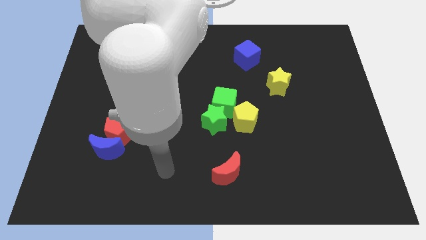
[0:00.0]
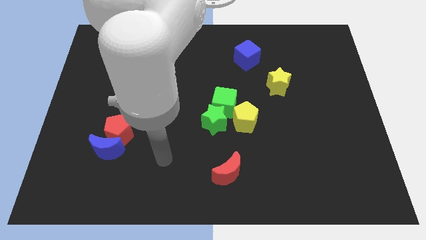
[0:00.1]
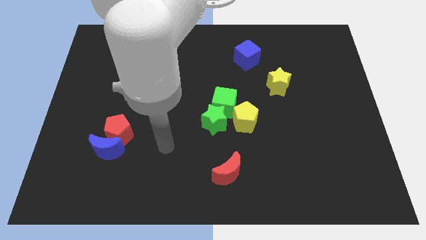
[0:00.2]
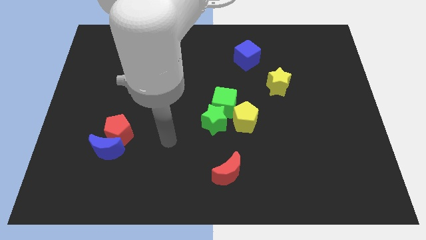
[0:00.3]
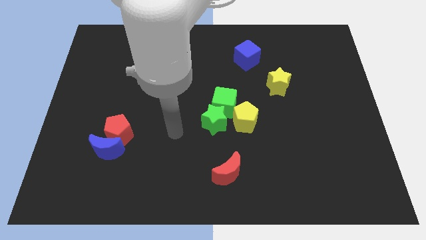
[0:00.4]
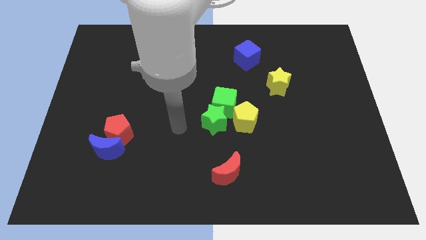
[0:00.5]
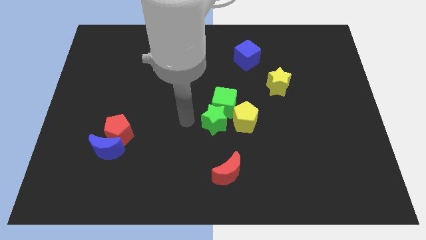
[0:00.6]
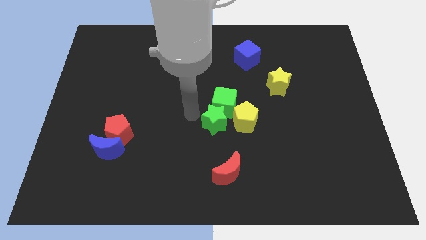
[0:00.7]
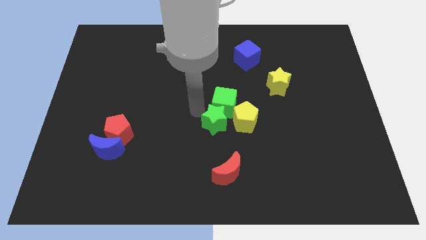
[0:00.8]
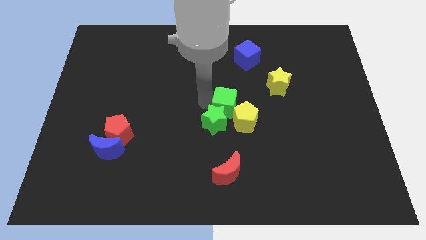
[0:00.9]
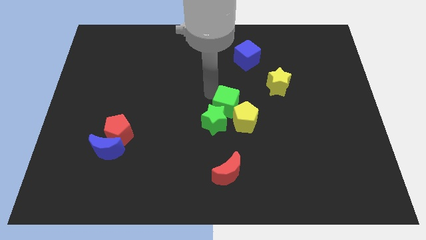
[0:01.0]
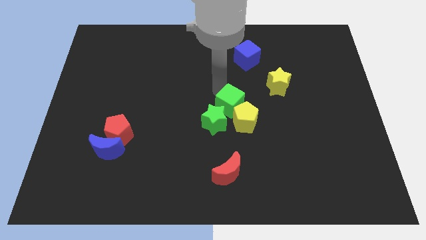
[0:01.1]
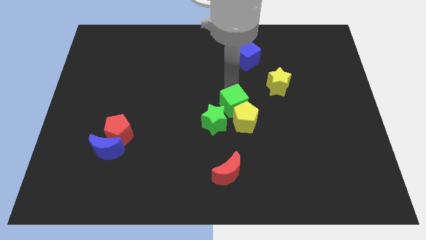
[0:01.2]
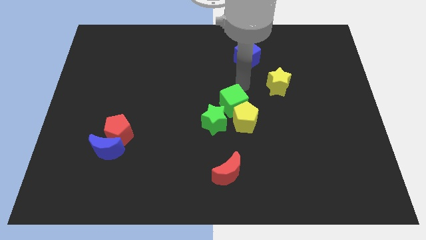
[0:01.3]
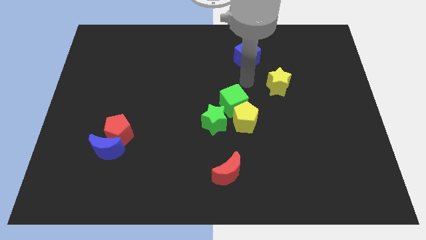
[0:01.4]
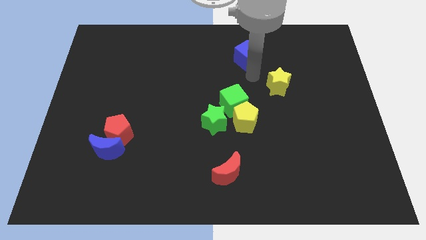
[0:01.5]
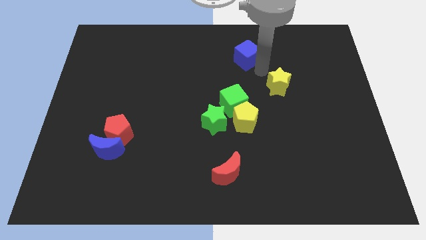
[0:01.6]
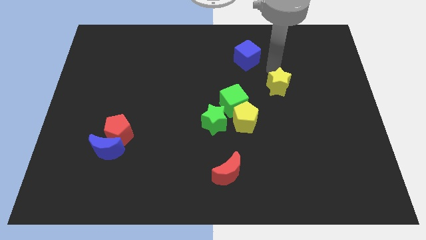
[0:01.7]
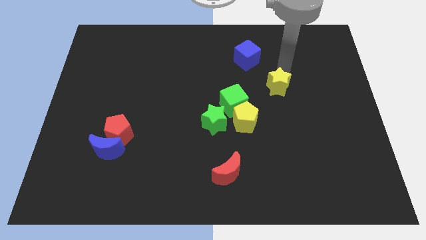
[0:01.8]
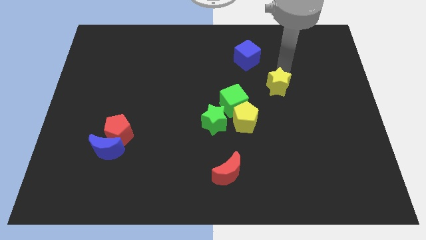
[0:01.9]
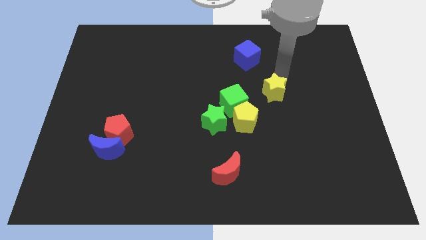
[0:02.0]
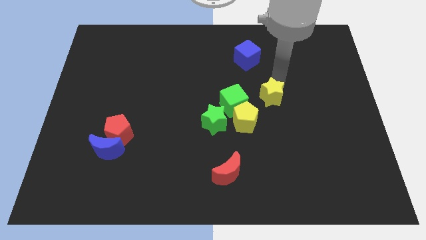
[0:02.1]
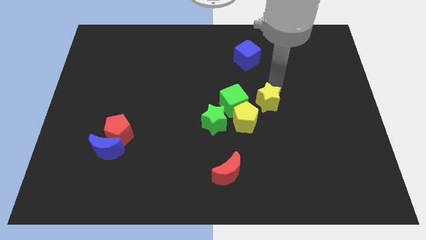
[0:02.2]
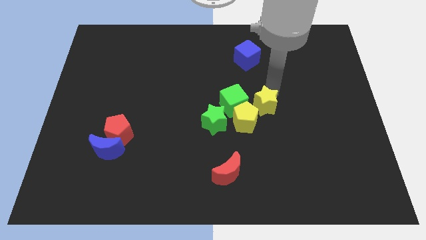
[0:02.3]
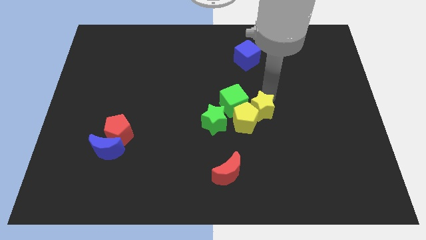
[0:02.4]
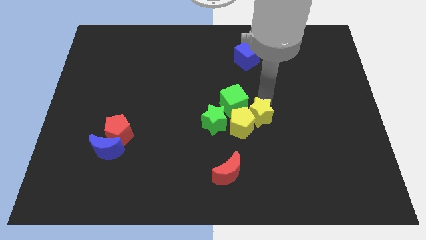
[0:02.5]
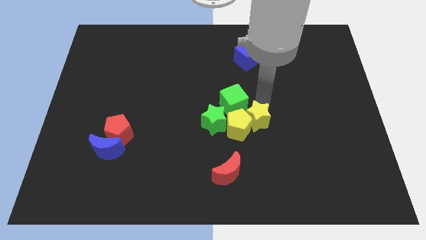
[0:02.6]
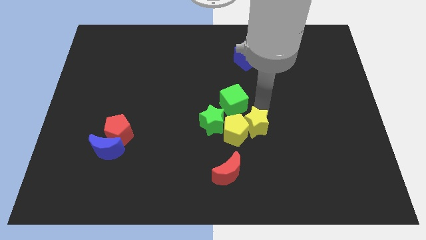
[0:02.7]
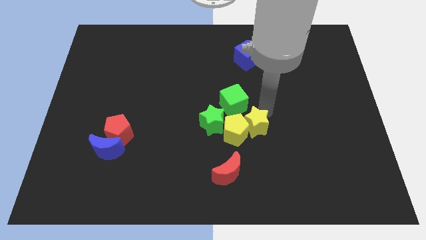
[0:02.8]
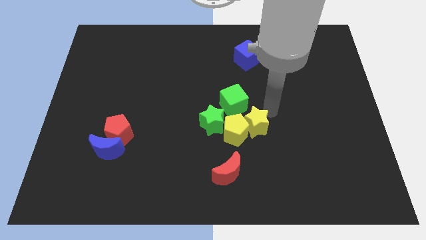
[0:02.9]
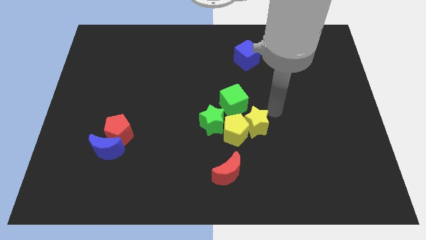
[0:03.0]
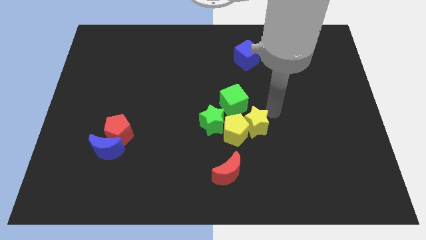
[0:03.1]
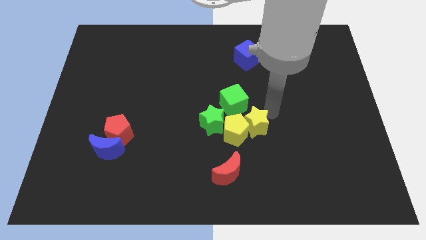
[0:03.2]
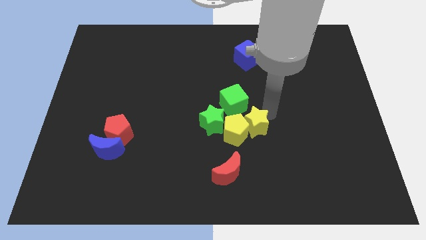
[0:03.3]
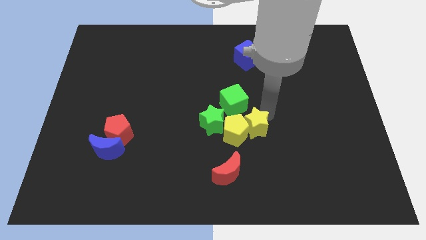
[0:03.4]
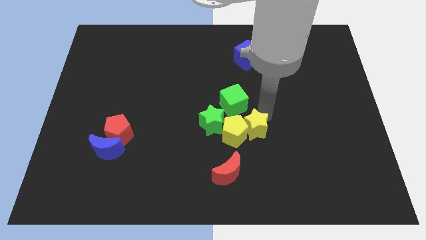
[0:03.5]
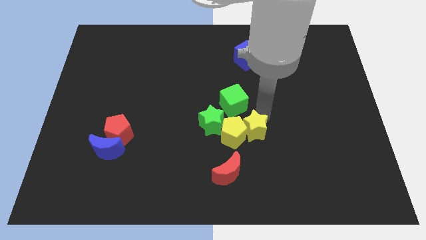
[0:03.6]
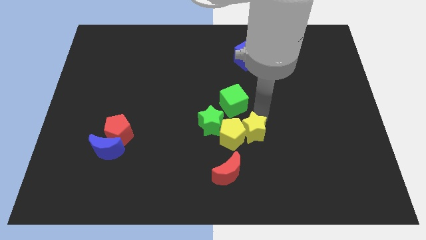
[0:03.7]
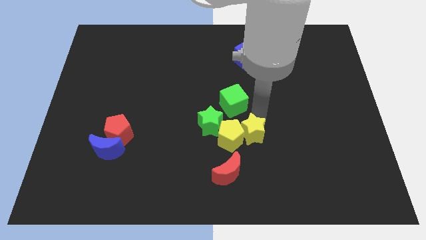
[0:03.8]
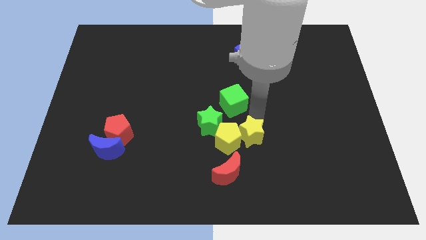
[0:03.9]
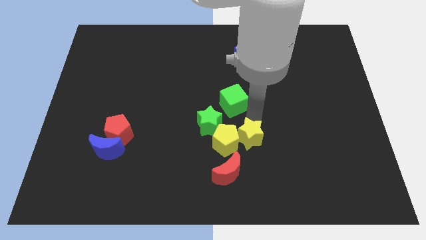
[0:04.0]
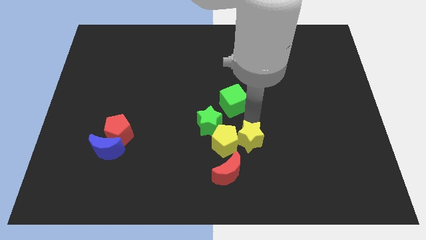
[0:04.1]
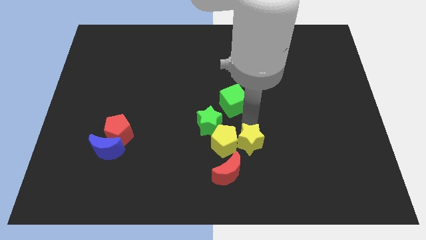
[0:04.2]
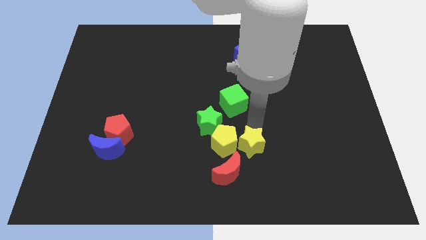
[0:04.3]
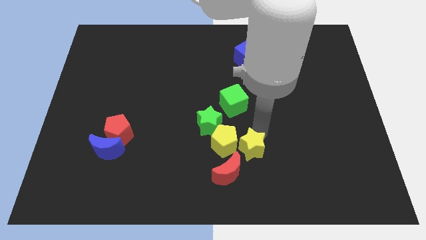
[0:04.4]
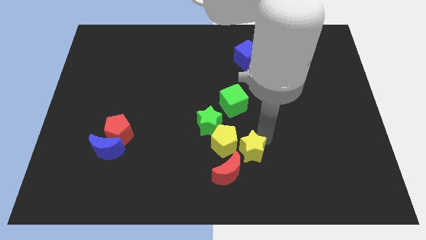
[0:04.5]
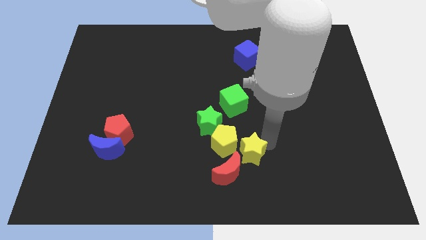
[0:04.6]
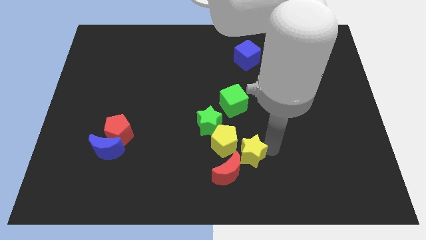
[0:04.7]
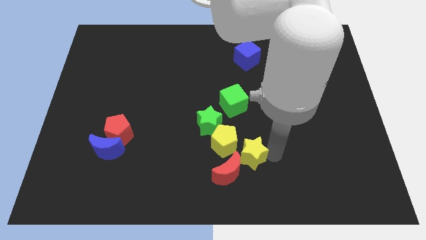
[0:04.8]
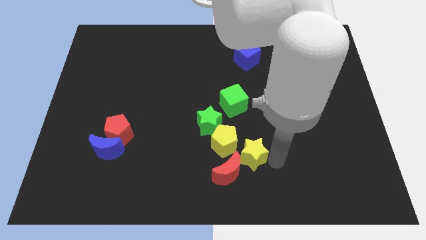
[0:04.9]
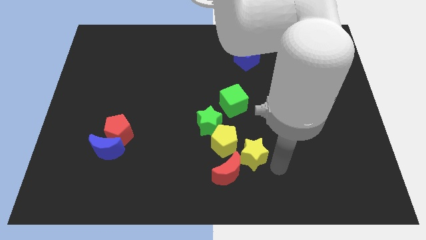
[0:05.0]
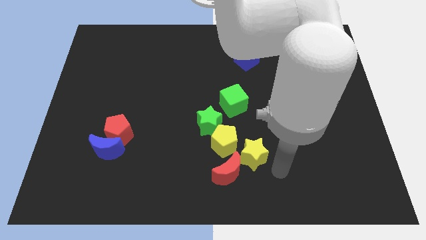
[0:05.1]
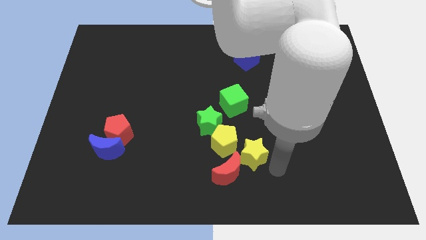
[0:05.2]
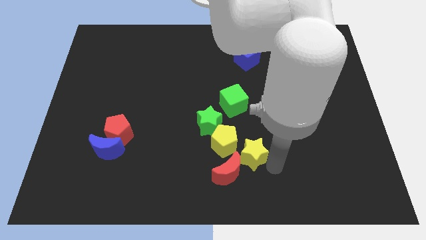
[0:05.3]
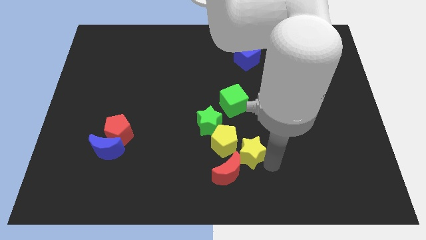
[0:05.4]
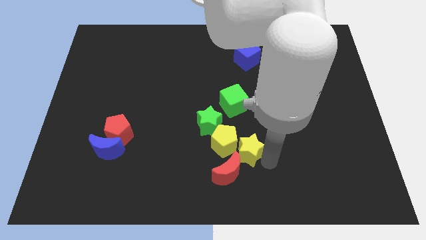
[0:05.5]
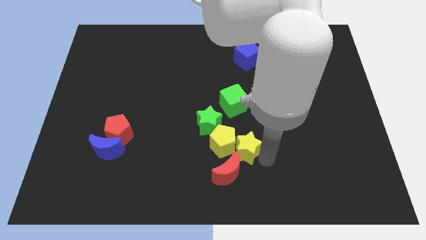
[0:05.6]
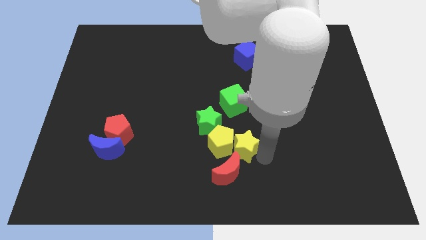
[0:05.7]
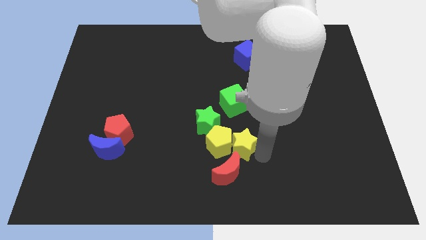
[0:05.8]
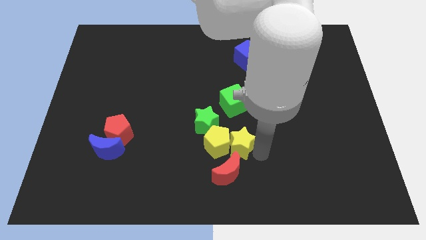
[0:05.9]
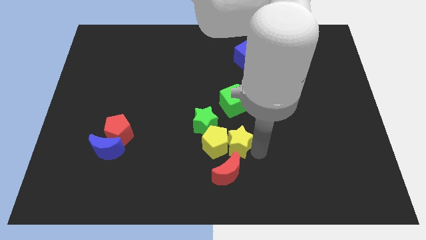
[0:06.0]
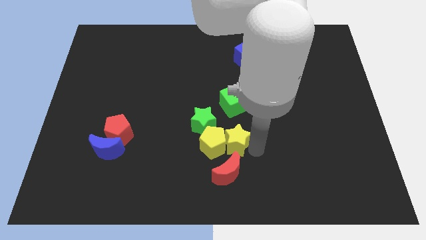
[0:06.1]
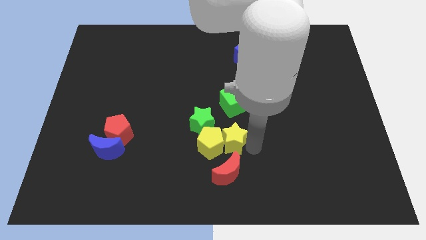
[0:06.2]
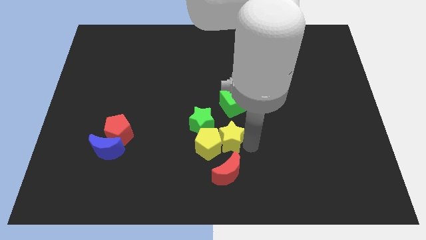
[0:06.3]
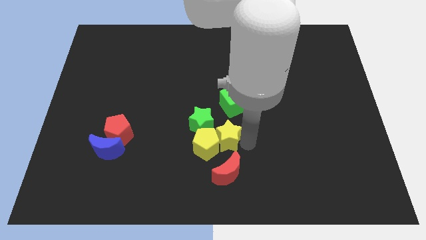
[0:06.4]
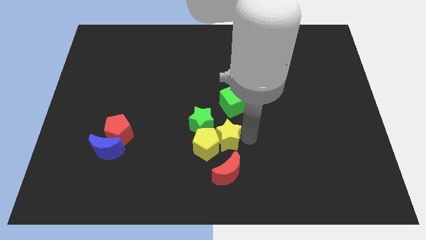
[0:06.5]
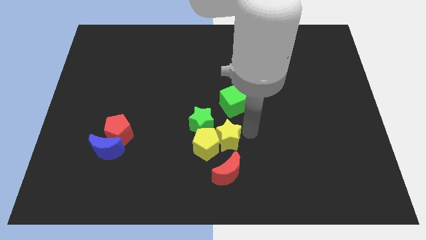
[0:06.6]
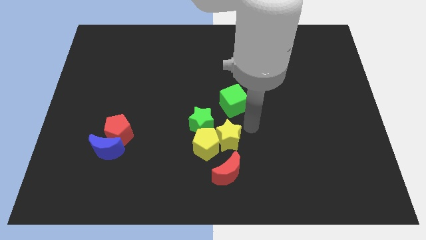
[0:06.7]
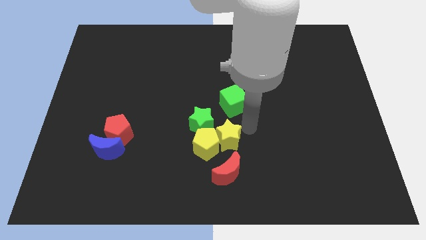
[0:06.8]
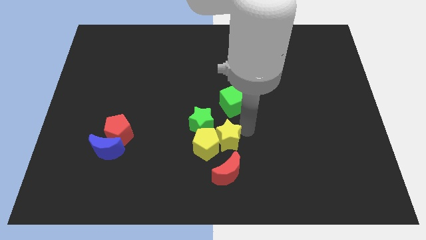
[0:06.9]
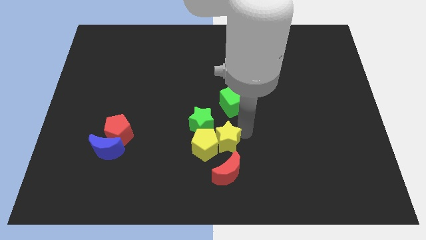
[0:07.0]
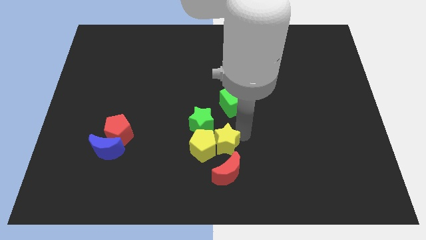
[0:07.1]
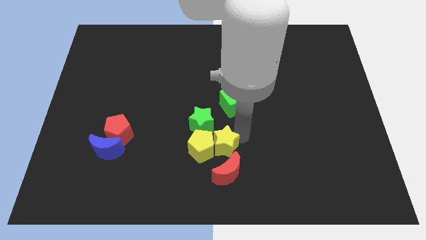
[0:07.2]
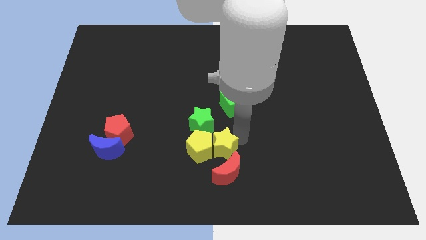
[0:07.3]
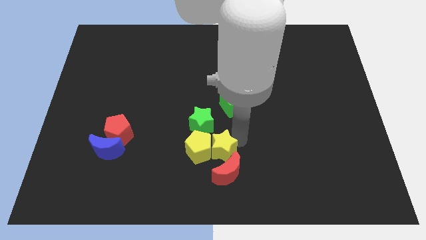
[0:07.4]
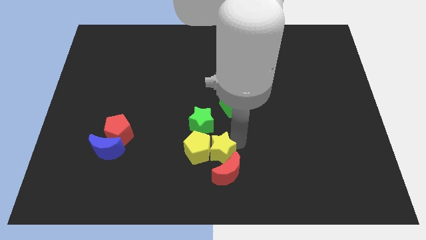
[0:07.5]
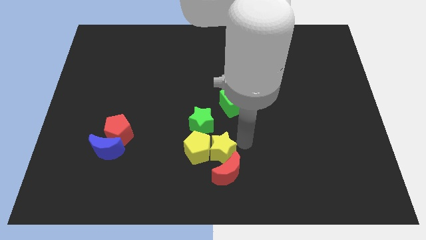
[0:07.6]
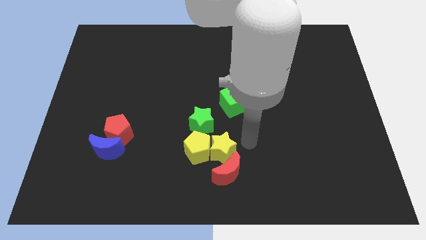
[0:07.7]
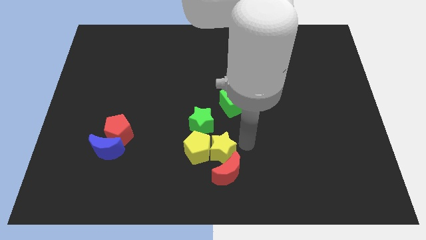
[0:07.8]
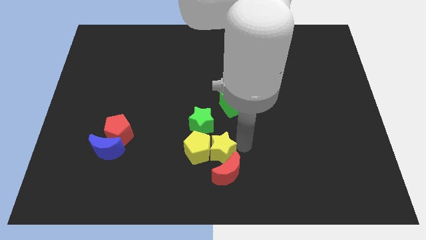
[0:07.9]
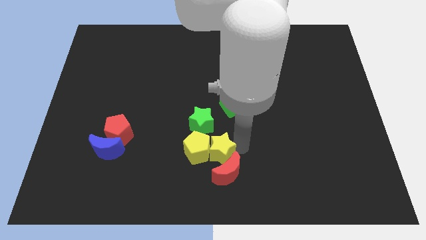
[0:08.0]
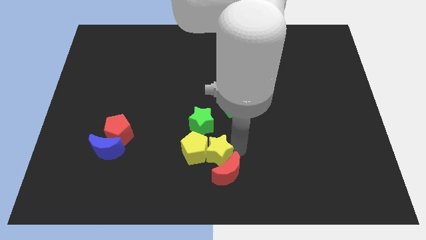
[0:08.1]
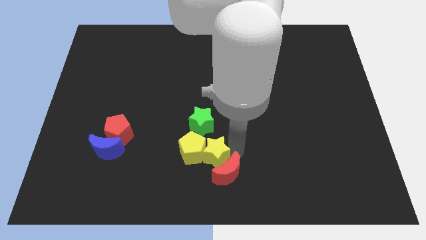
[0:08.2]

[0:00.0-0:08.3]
slide the yellow star left of the red moon
